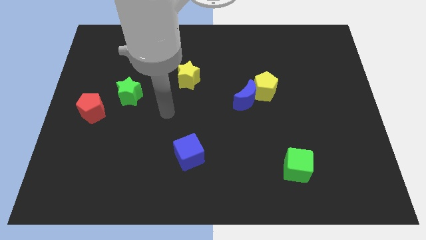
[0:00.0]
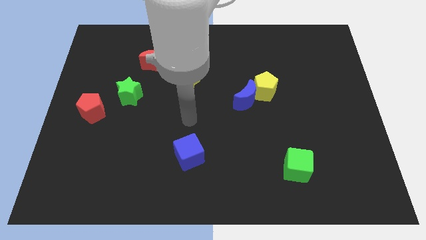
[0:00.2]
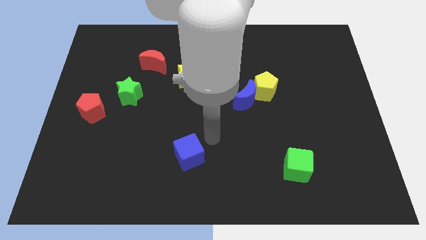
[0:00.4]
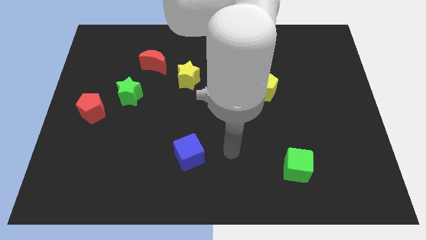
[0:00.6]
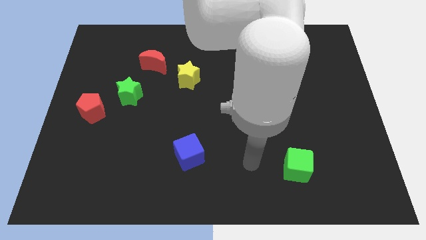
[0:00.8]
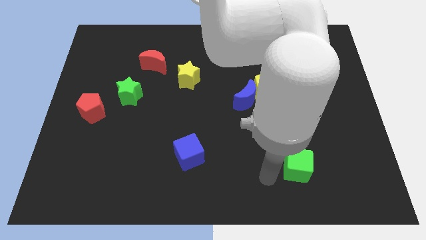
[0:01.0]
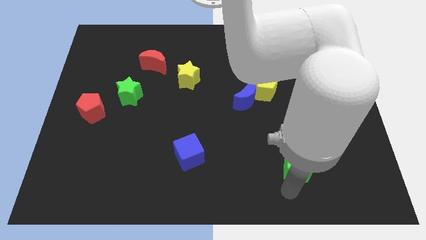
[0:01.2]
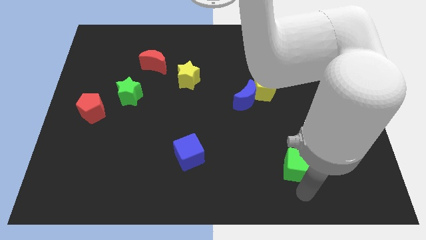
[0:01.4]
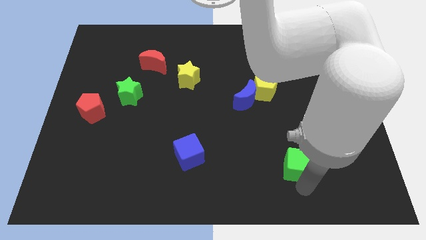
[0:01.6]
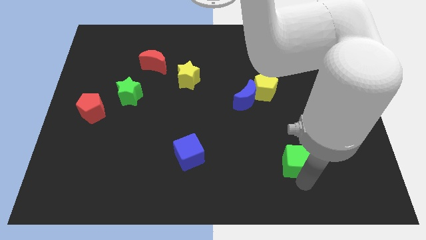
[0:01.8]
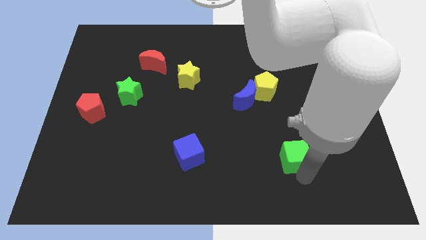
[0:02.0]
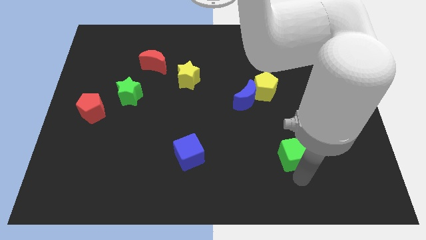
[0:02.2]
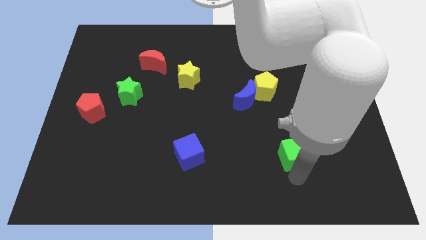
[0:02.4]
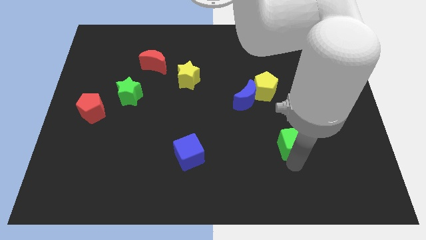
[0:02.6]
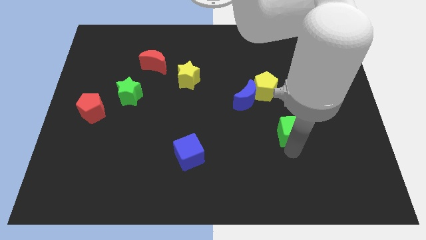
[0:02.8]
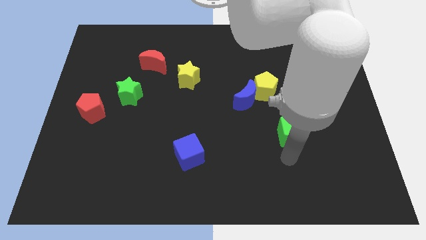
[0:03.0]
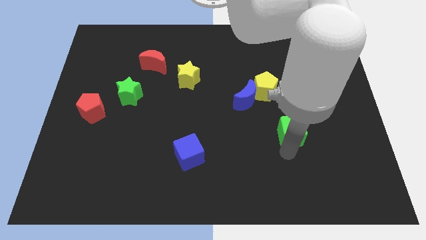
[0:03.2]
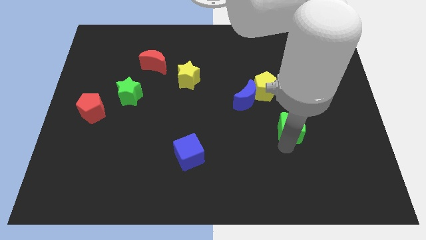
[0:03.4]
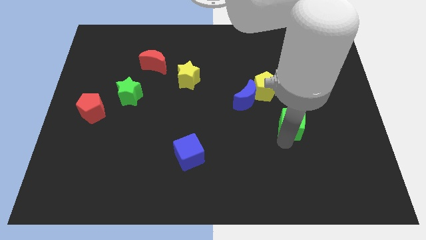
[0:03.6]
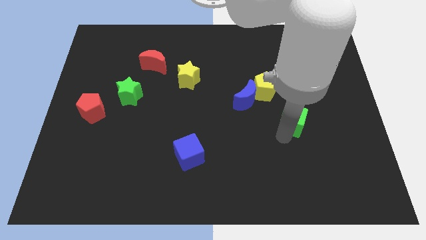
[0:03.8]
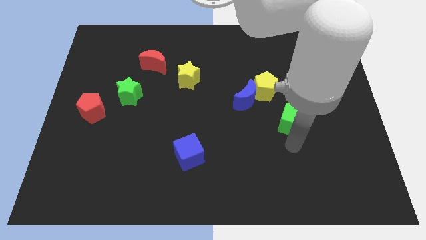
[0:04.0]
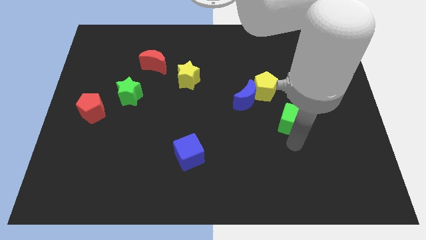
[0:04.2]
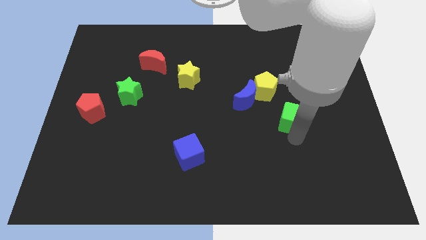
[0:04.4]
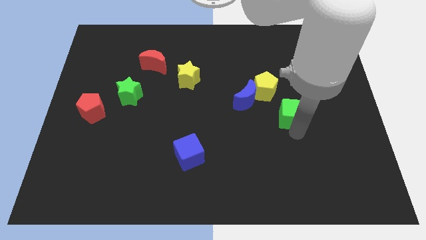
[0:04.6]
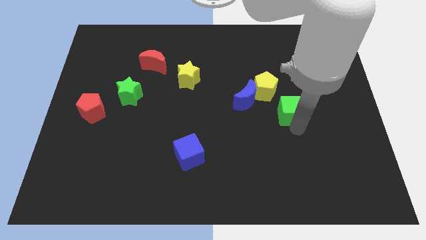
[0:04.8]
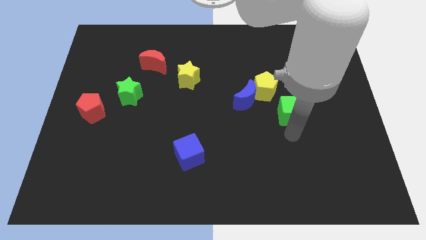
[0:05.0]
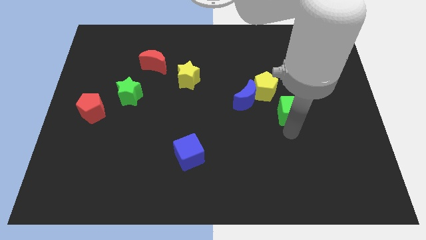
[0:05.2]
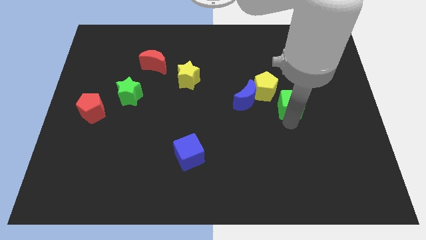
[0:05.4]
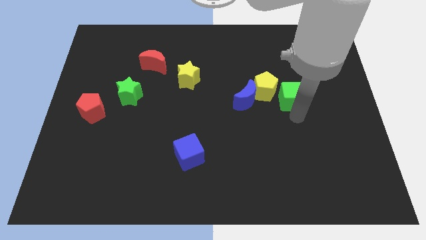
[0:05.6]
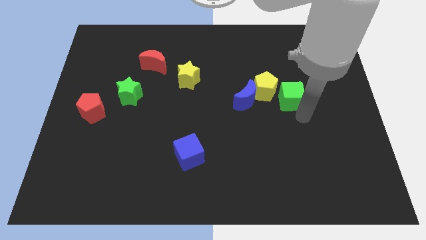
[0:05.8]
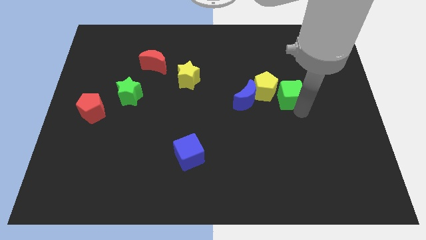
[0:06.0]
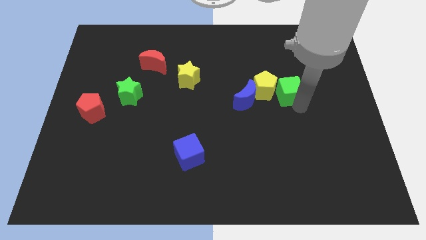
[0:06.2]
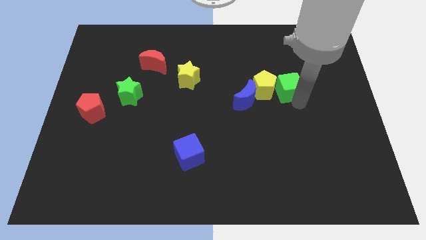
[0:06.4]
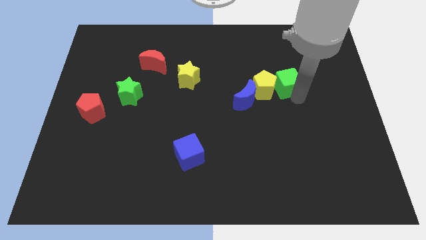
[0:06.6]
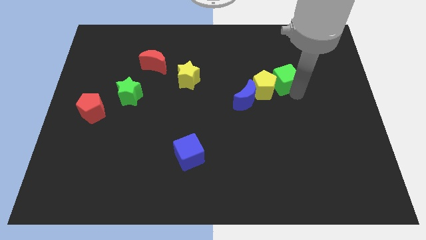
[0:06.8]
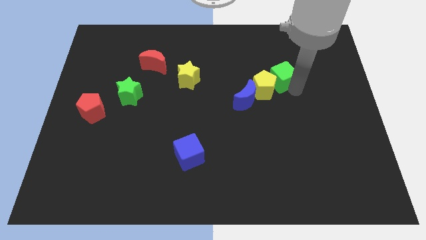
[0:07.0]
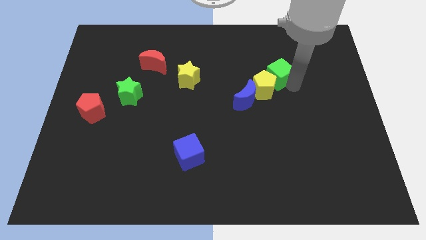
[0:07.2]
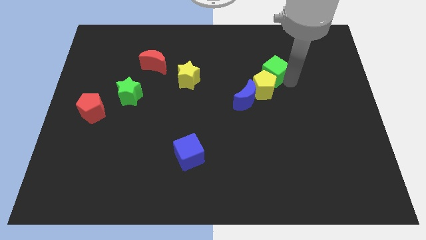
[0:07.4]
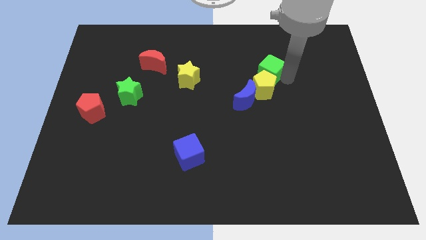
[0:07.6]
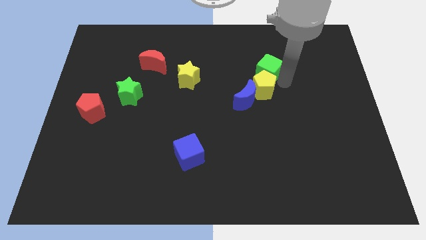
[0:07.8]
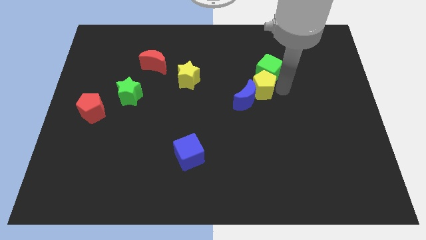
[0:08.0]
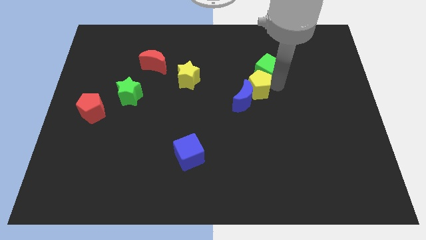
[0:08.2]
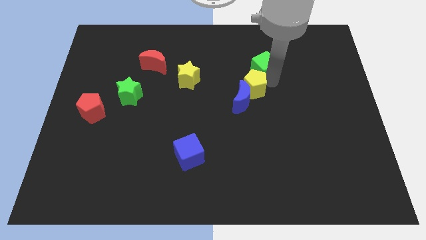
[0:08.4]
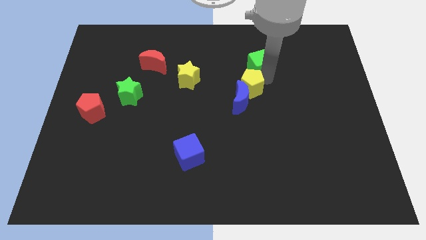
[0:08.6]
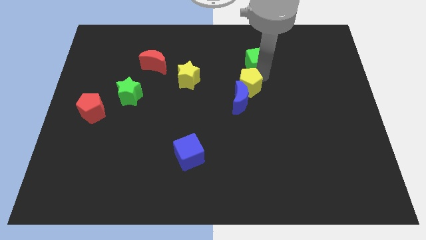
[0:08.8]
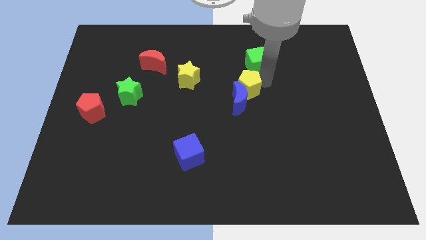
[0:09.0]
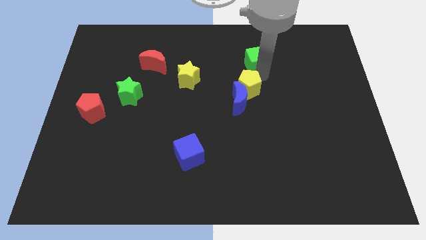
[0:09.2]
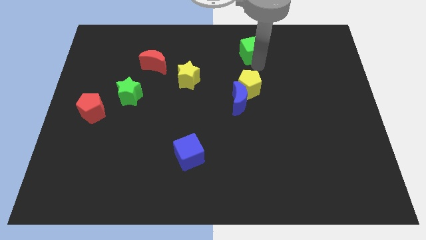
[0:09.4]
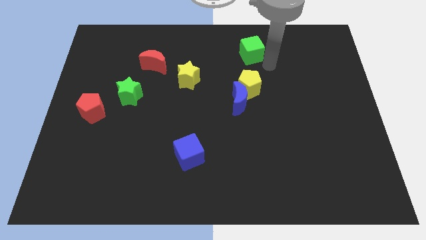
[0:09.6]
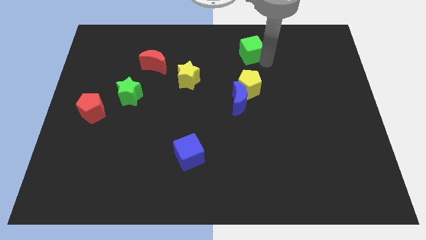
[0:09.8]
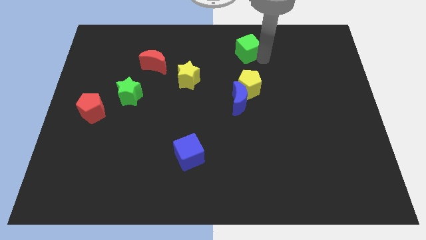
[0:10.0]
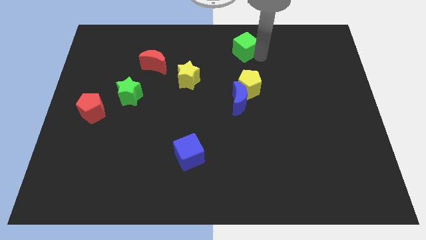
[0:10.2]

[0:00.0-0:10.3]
slide the green cube to the top
